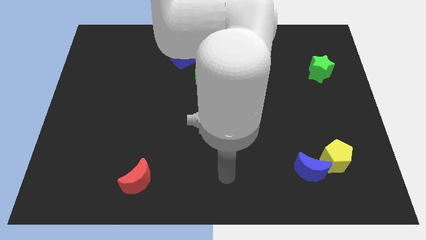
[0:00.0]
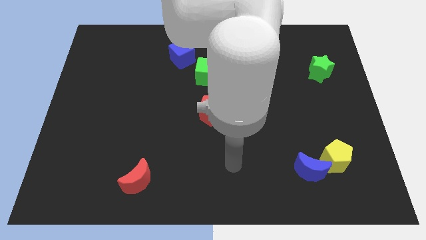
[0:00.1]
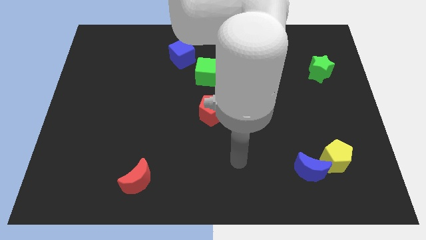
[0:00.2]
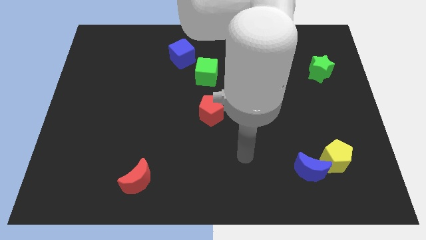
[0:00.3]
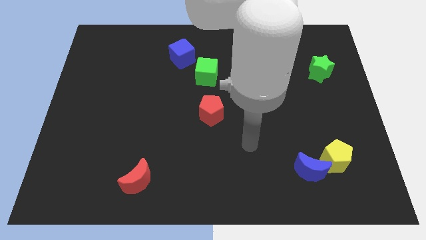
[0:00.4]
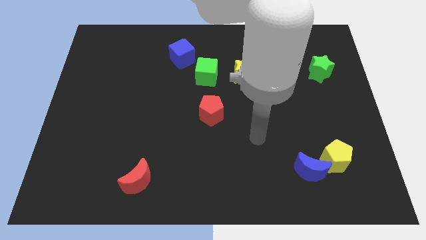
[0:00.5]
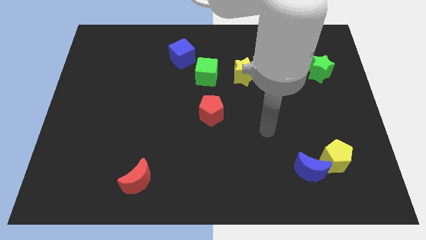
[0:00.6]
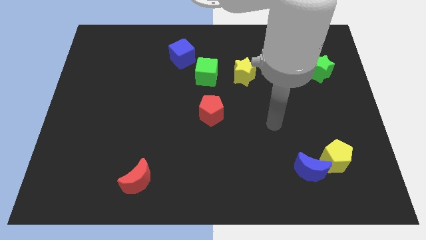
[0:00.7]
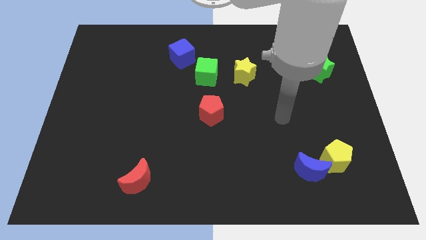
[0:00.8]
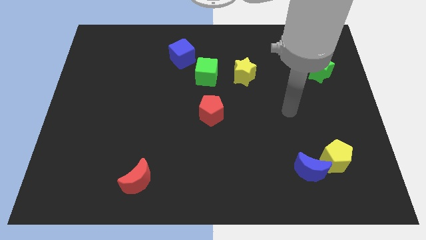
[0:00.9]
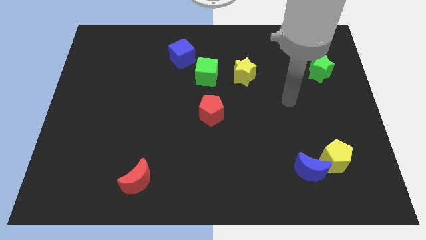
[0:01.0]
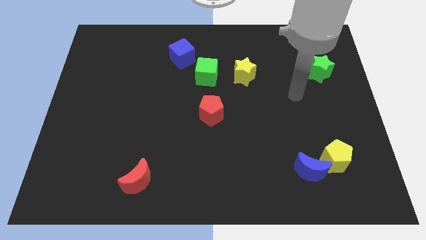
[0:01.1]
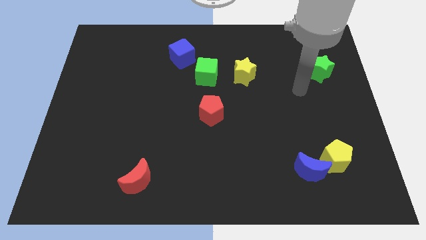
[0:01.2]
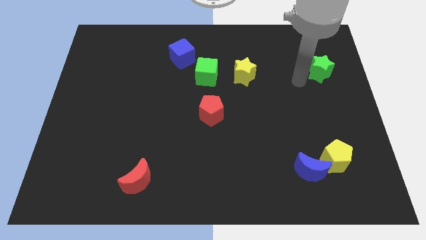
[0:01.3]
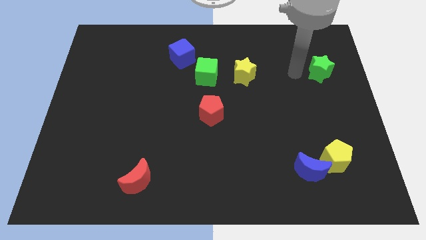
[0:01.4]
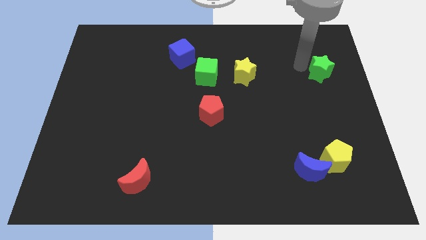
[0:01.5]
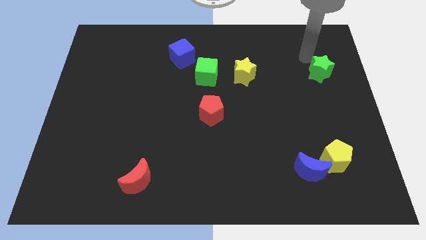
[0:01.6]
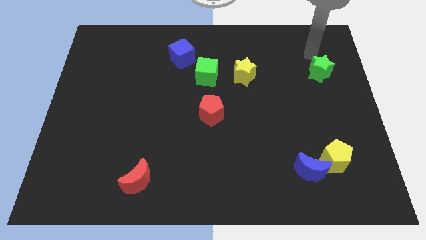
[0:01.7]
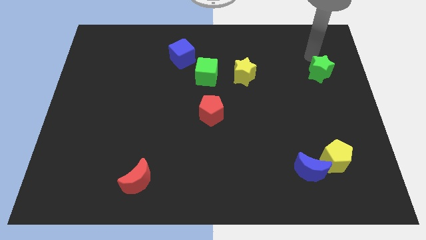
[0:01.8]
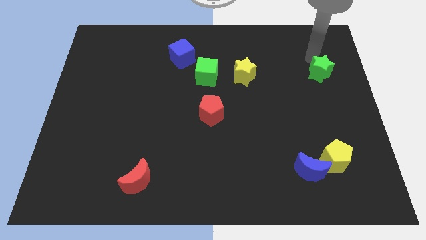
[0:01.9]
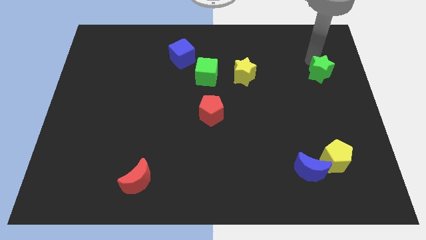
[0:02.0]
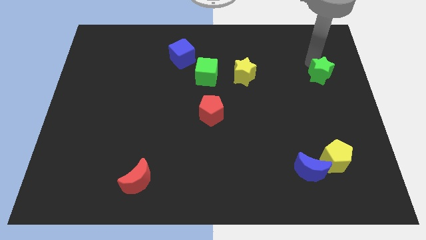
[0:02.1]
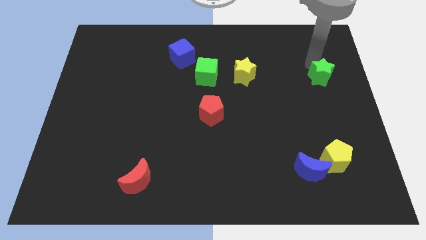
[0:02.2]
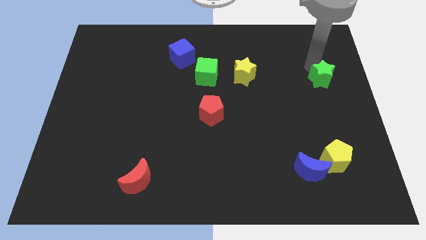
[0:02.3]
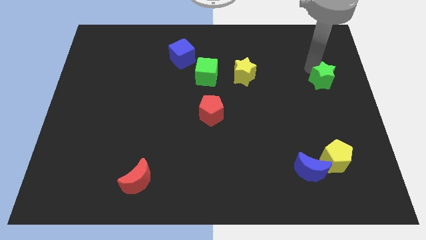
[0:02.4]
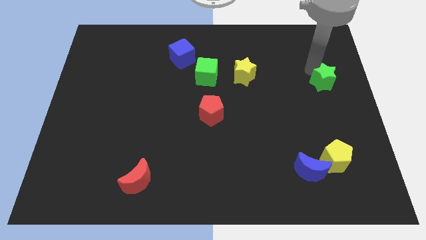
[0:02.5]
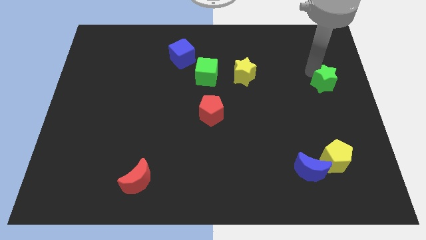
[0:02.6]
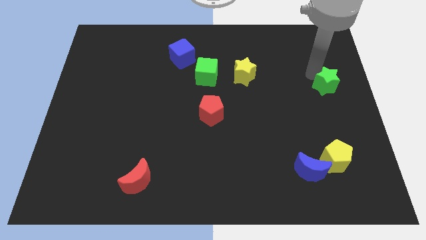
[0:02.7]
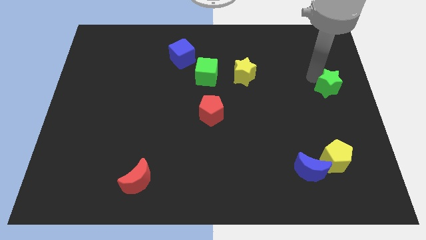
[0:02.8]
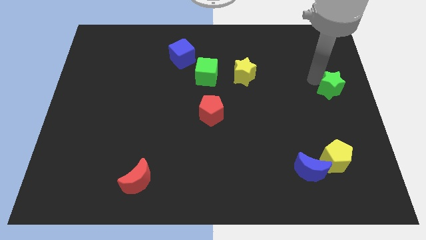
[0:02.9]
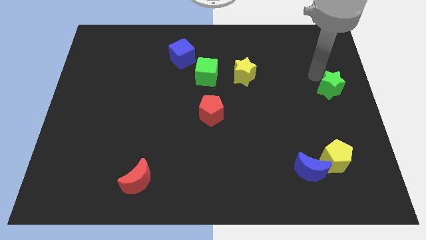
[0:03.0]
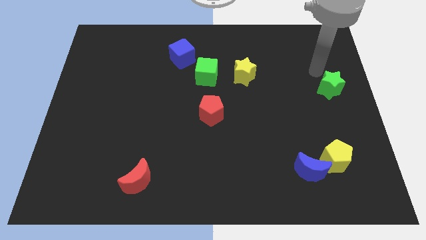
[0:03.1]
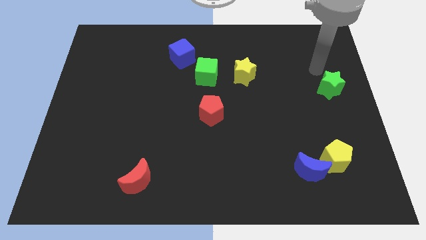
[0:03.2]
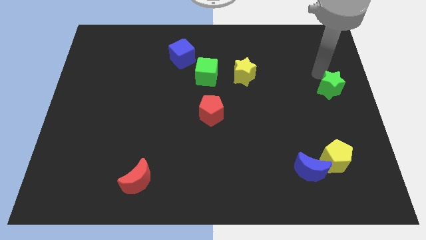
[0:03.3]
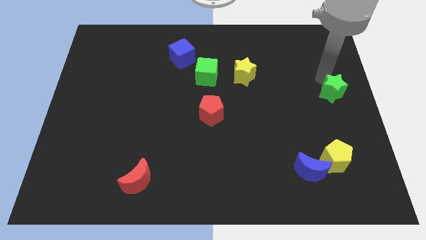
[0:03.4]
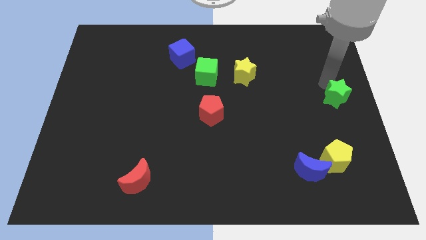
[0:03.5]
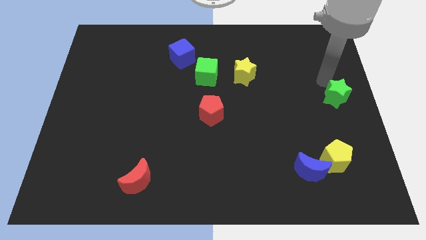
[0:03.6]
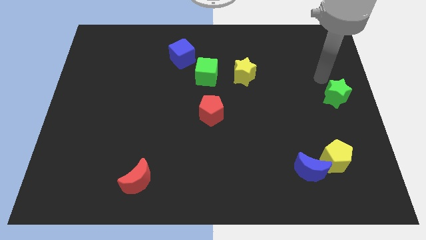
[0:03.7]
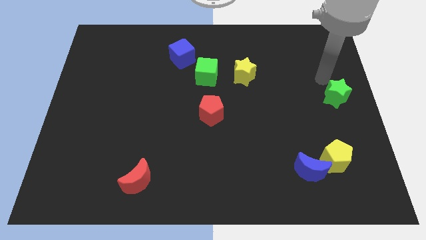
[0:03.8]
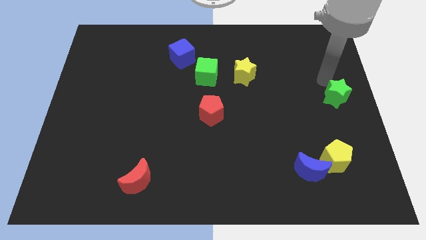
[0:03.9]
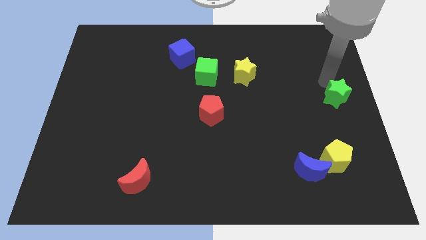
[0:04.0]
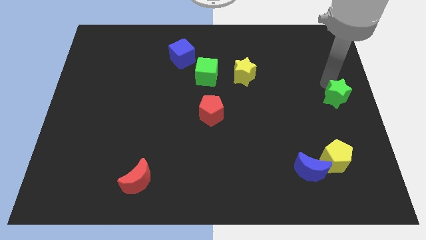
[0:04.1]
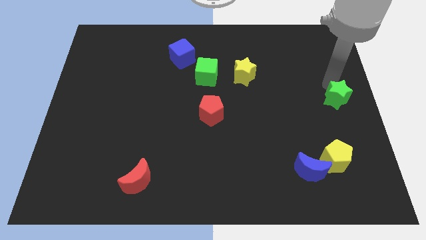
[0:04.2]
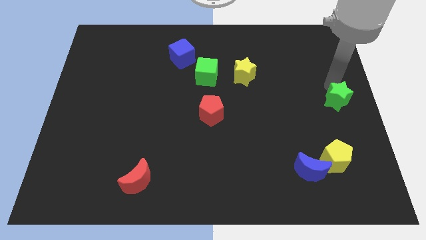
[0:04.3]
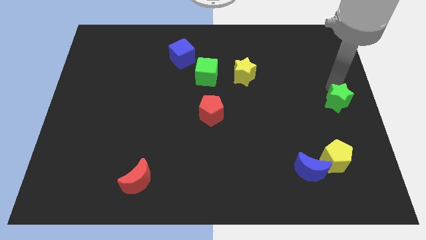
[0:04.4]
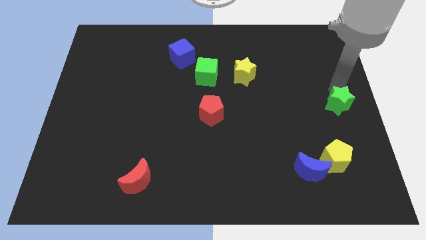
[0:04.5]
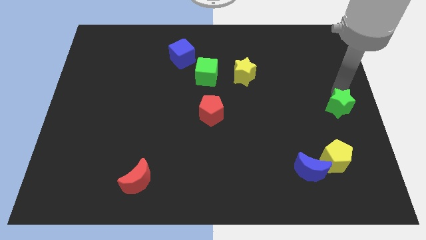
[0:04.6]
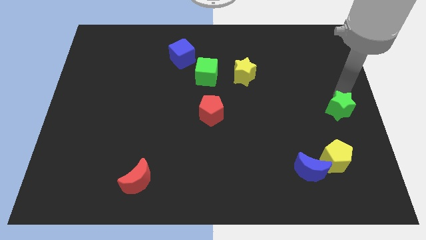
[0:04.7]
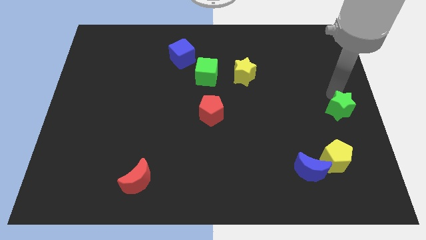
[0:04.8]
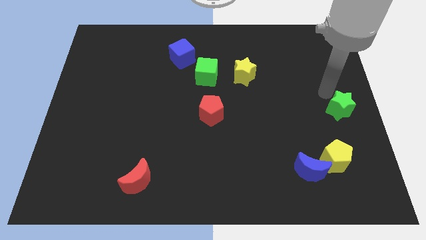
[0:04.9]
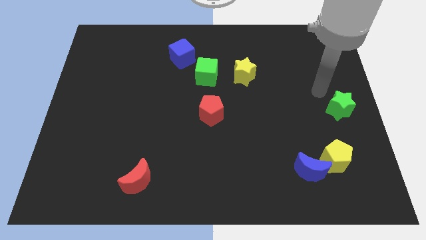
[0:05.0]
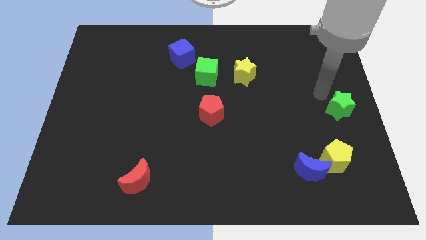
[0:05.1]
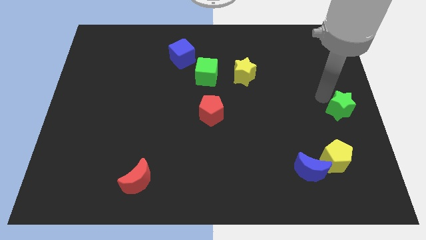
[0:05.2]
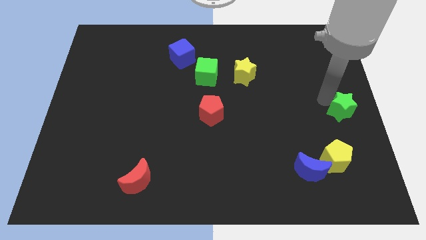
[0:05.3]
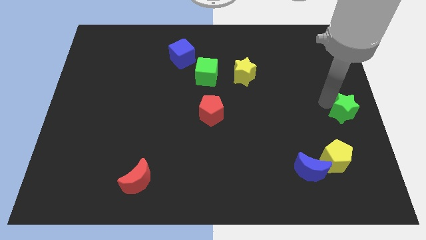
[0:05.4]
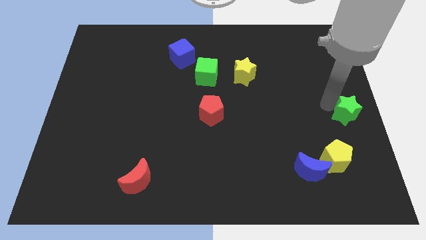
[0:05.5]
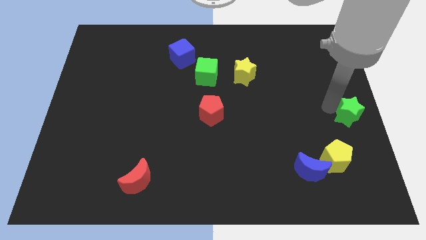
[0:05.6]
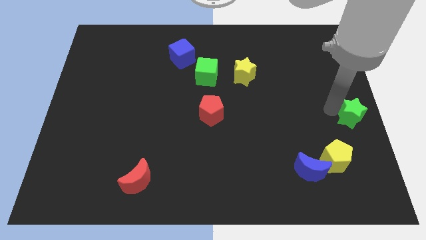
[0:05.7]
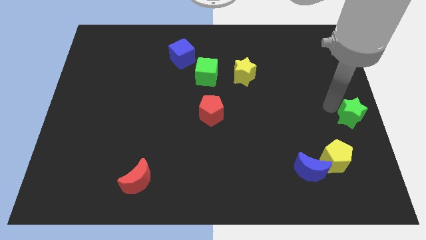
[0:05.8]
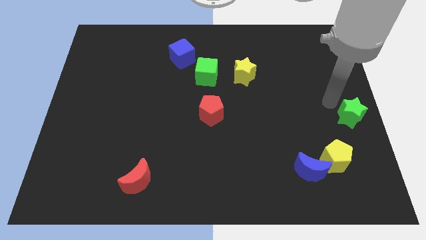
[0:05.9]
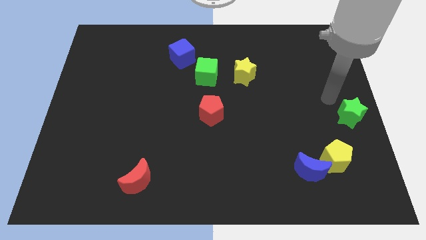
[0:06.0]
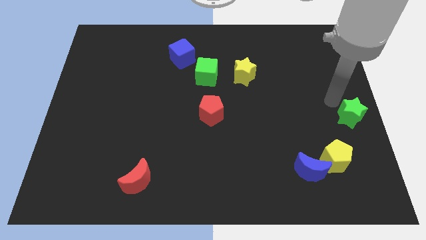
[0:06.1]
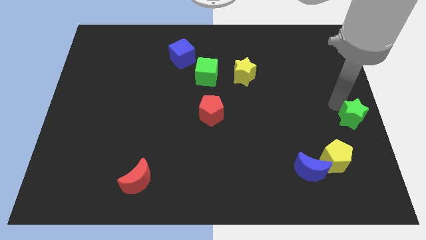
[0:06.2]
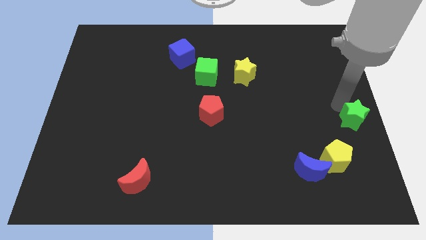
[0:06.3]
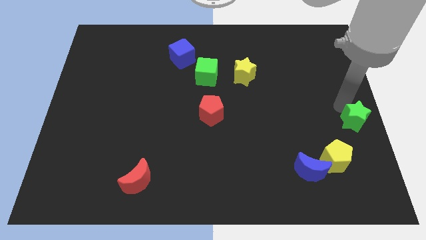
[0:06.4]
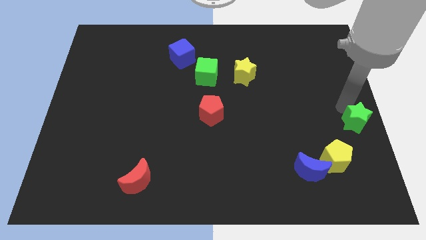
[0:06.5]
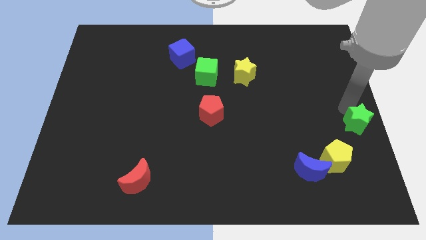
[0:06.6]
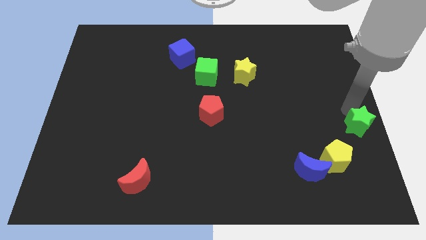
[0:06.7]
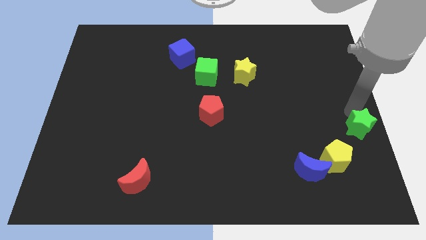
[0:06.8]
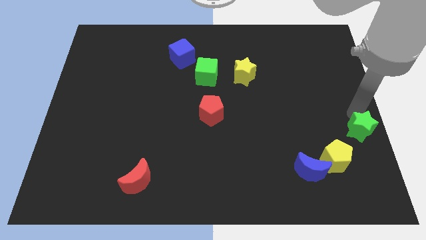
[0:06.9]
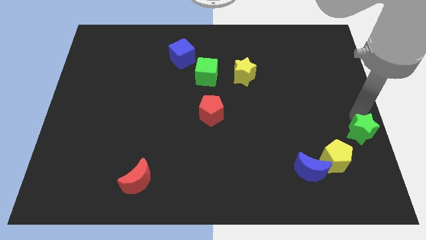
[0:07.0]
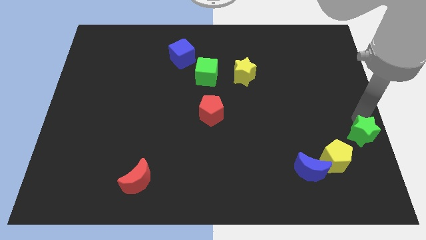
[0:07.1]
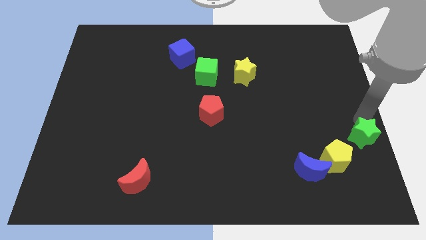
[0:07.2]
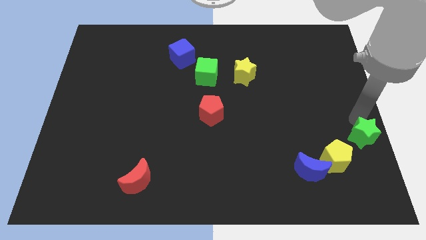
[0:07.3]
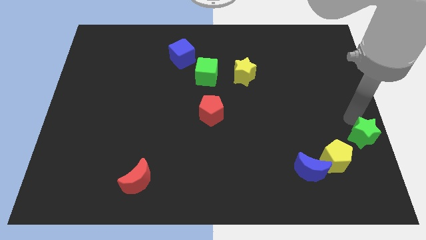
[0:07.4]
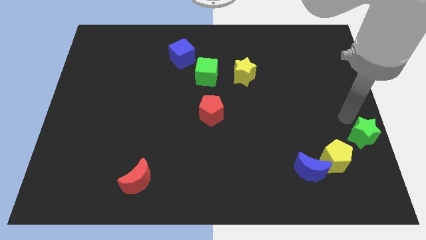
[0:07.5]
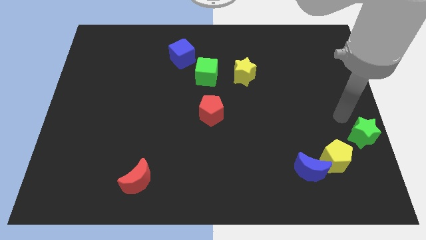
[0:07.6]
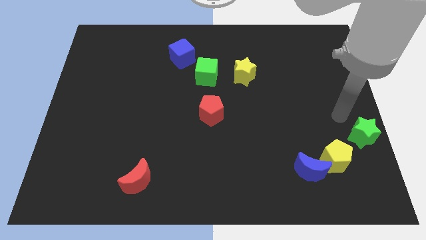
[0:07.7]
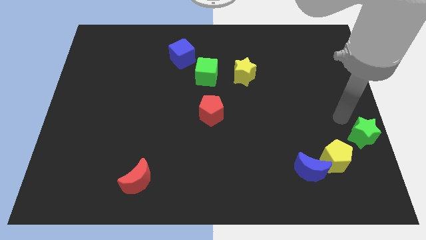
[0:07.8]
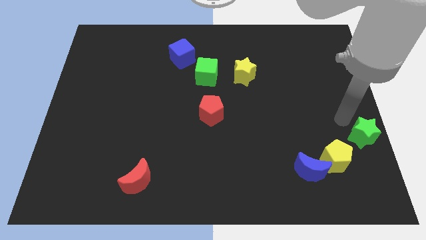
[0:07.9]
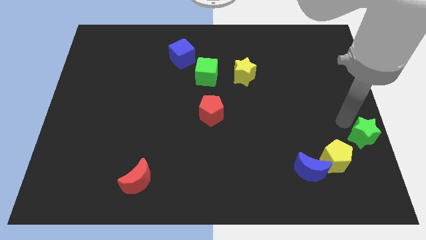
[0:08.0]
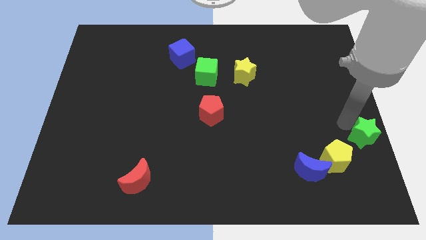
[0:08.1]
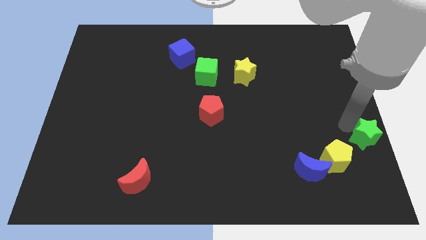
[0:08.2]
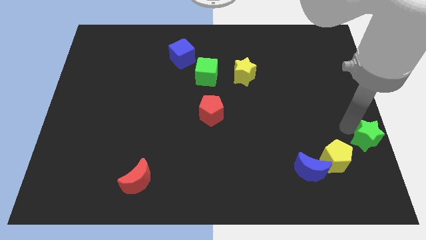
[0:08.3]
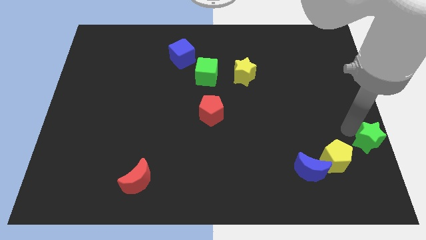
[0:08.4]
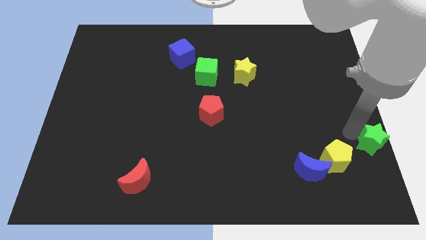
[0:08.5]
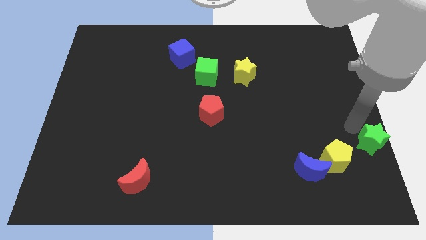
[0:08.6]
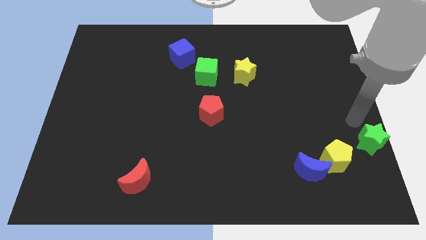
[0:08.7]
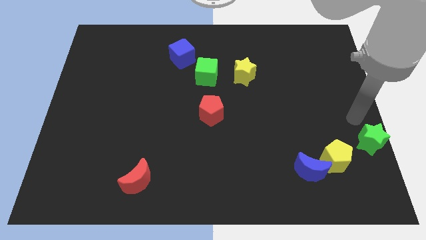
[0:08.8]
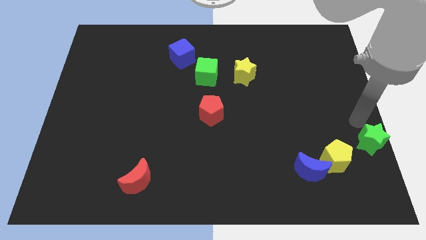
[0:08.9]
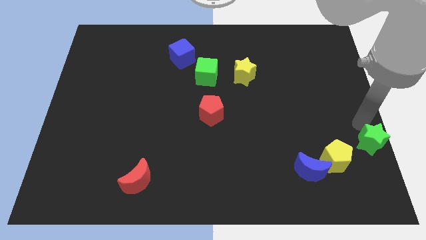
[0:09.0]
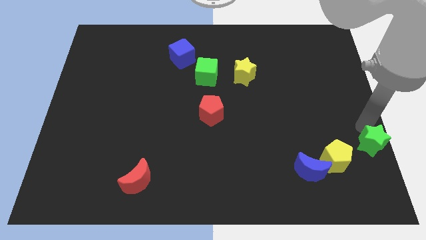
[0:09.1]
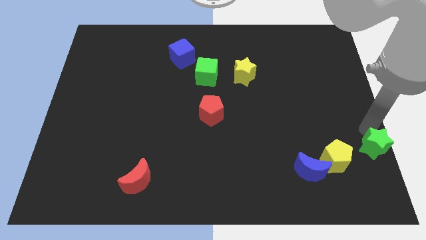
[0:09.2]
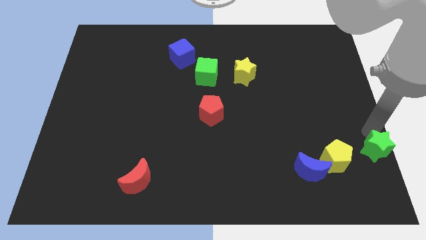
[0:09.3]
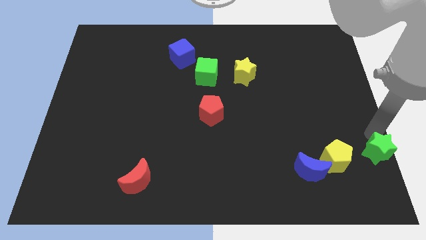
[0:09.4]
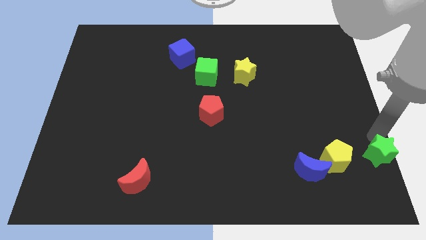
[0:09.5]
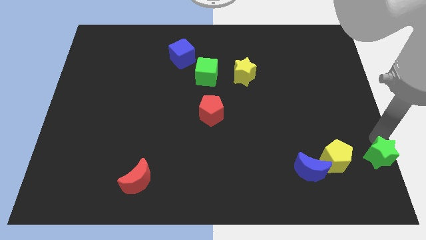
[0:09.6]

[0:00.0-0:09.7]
slide the green star to the bottom right of the board
